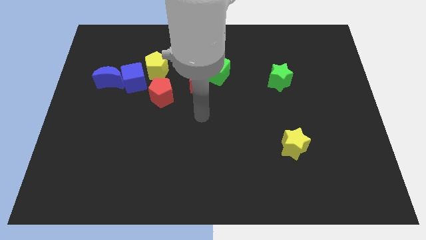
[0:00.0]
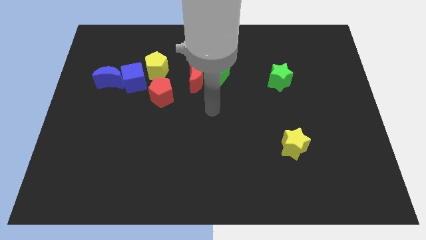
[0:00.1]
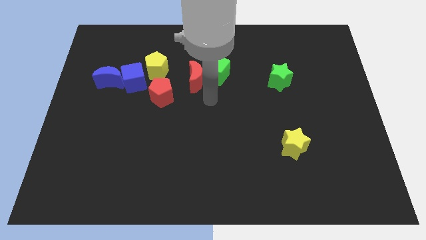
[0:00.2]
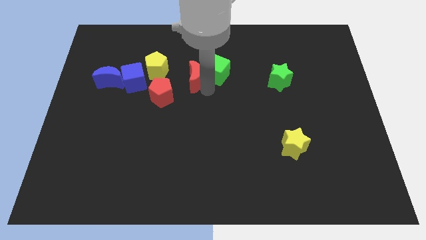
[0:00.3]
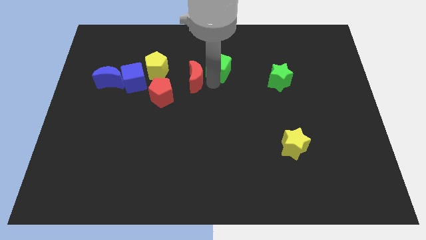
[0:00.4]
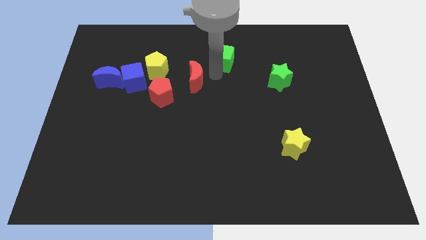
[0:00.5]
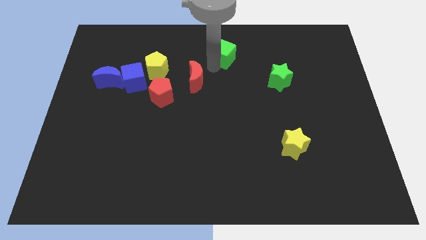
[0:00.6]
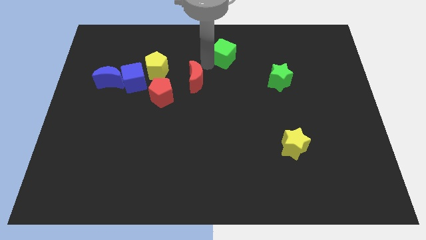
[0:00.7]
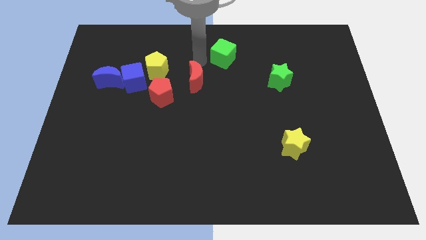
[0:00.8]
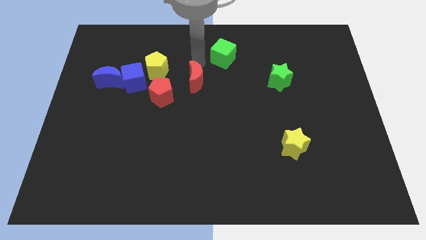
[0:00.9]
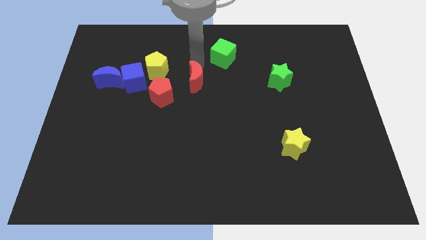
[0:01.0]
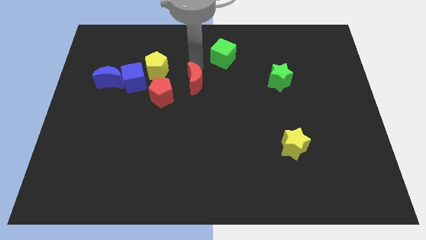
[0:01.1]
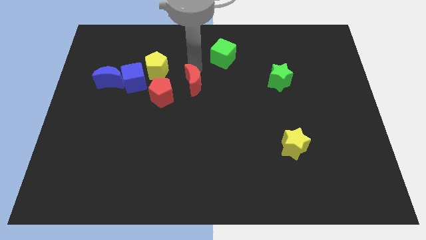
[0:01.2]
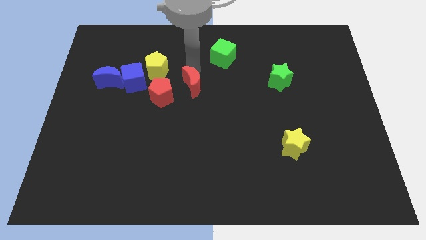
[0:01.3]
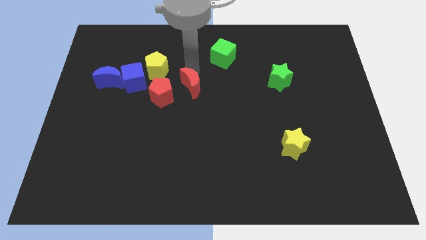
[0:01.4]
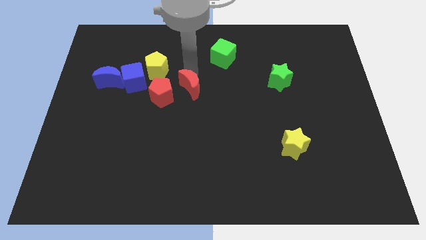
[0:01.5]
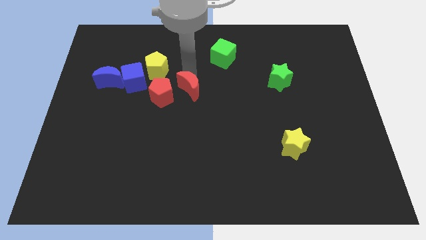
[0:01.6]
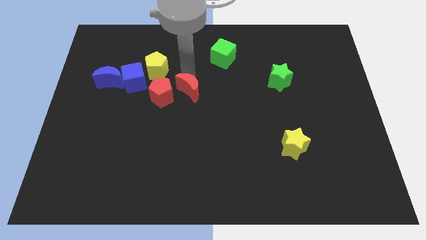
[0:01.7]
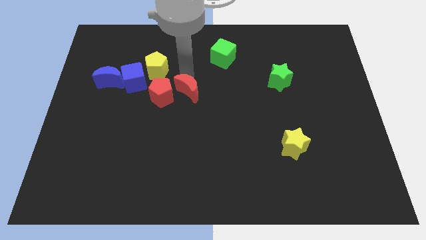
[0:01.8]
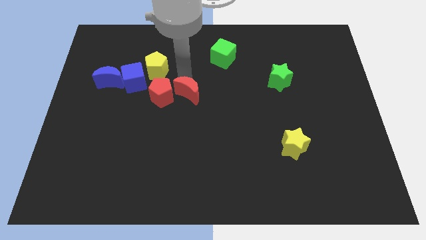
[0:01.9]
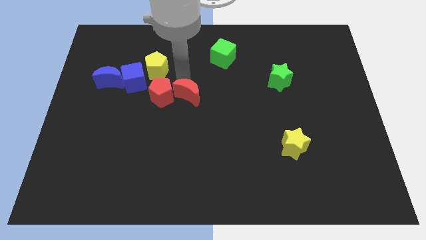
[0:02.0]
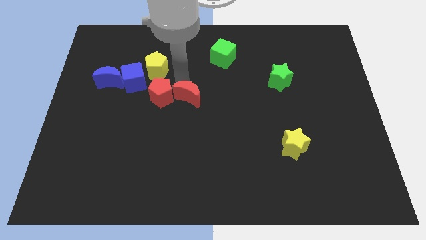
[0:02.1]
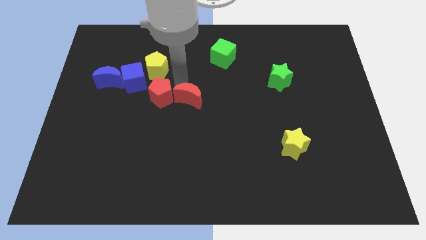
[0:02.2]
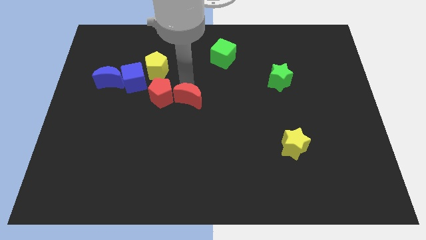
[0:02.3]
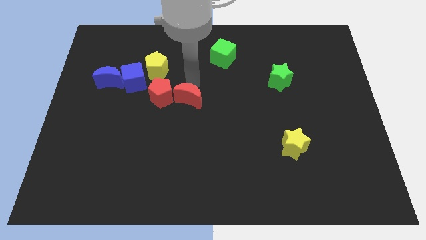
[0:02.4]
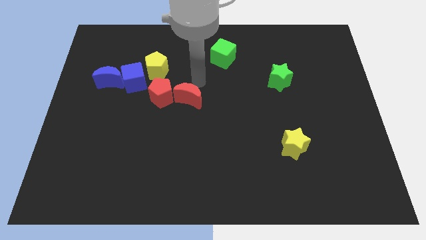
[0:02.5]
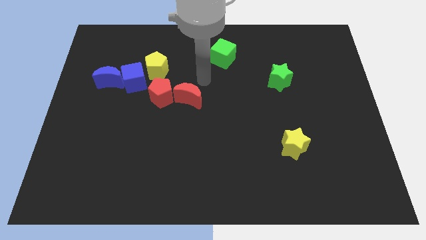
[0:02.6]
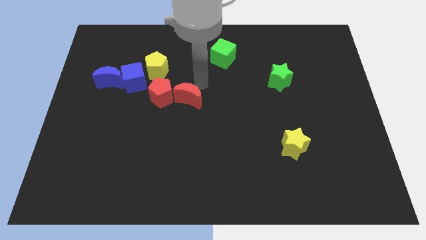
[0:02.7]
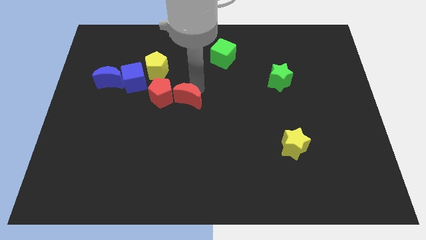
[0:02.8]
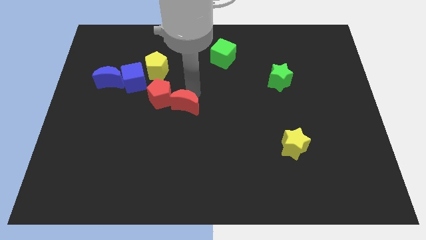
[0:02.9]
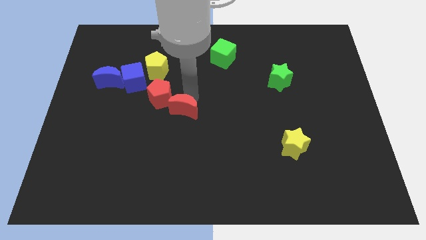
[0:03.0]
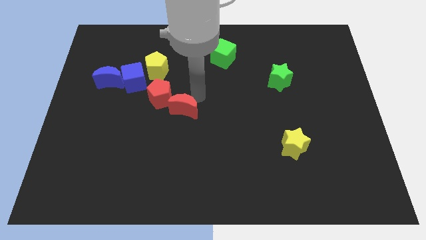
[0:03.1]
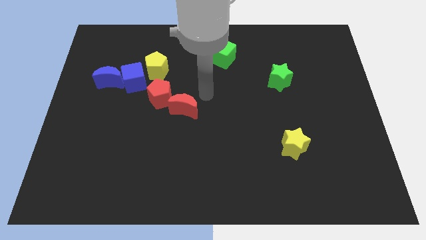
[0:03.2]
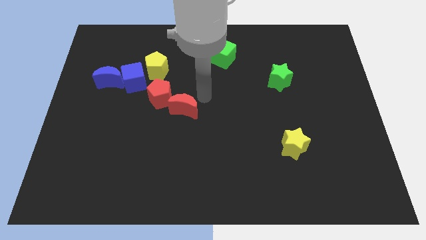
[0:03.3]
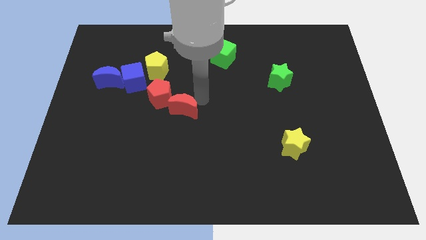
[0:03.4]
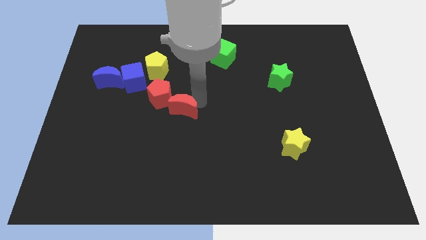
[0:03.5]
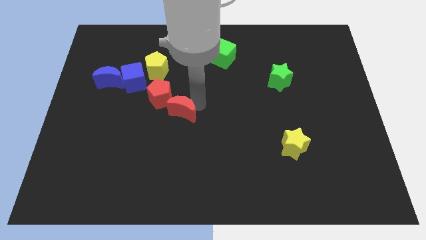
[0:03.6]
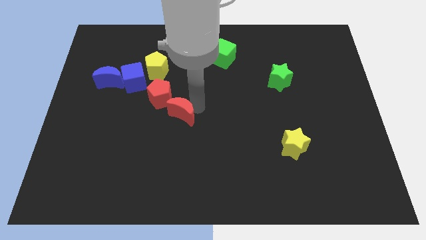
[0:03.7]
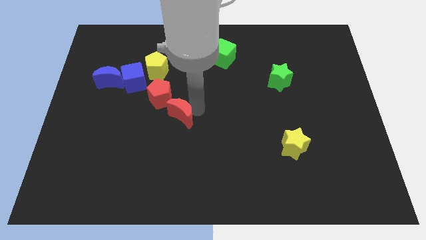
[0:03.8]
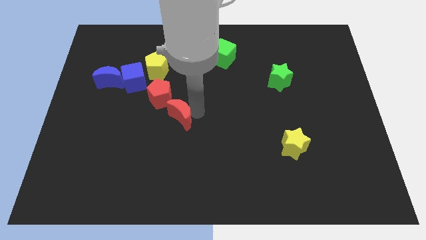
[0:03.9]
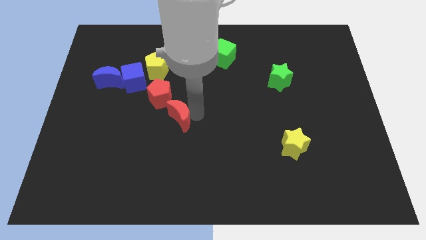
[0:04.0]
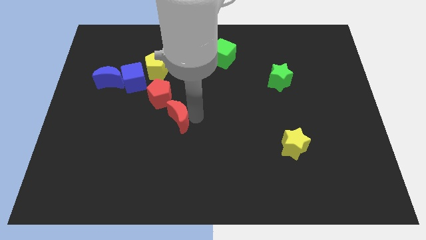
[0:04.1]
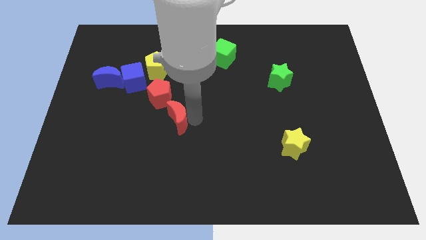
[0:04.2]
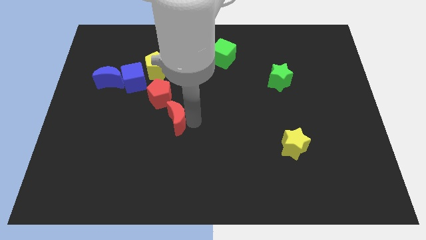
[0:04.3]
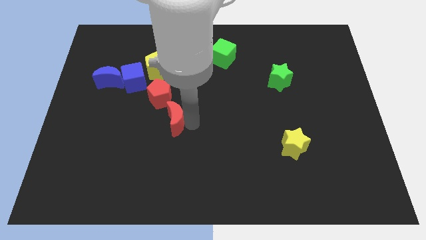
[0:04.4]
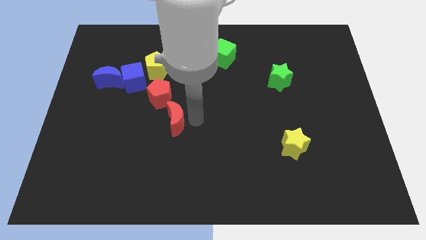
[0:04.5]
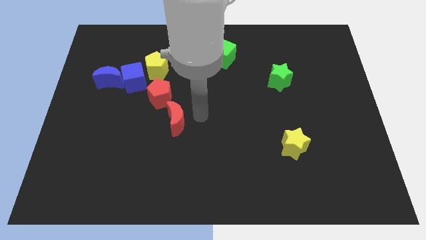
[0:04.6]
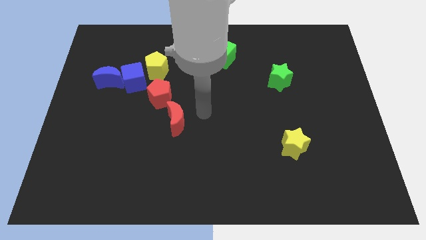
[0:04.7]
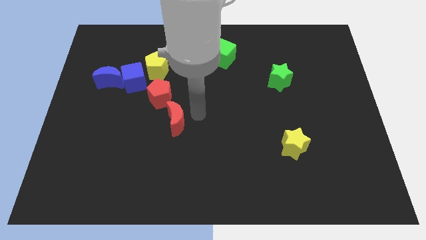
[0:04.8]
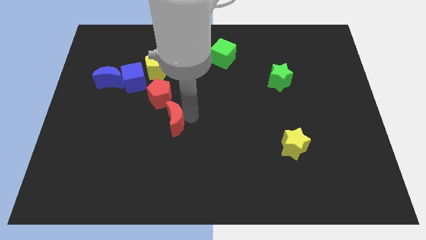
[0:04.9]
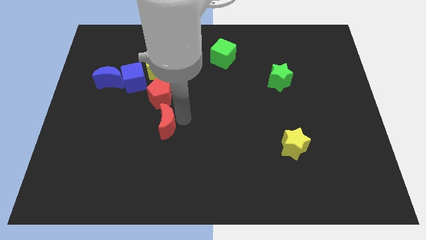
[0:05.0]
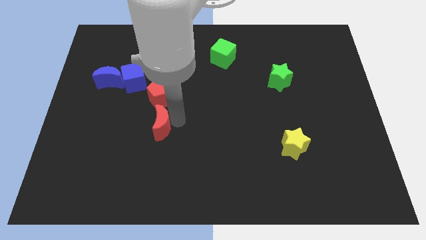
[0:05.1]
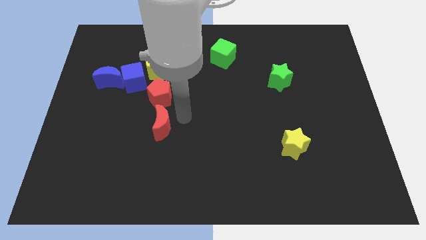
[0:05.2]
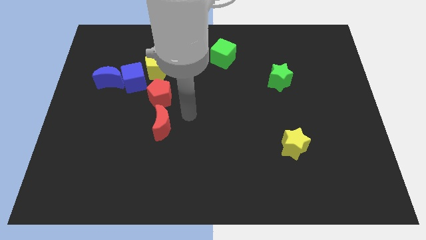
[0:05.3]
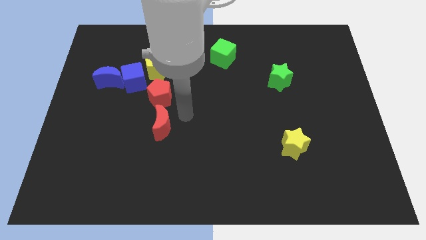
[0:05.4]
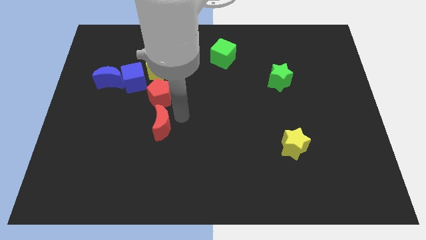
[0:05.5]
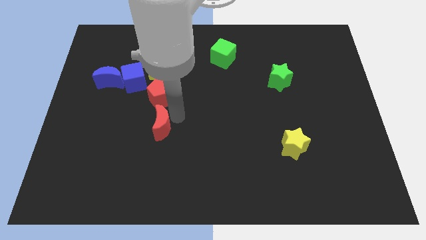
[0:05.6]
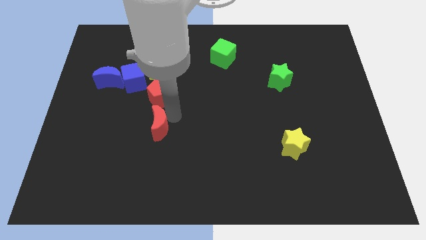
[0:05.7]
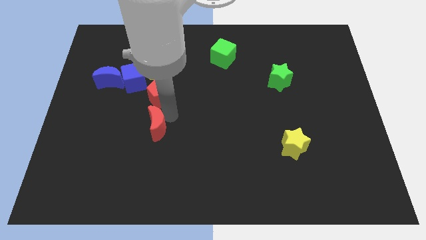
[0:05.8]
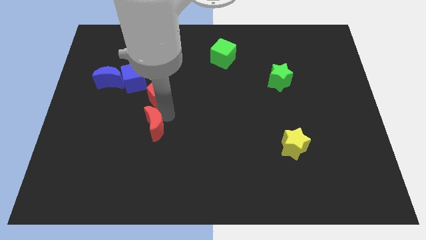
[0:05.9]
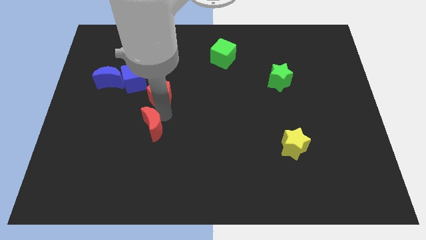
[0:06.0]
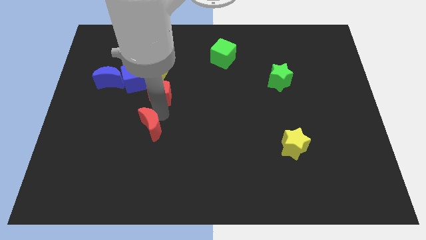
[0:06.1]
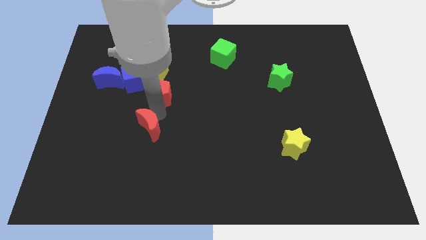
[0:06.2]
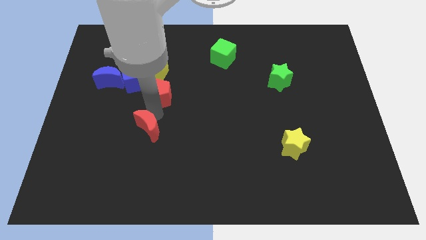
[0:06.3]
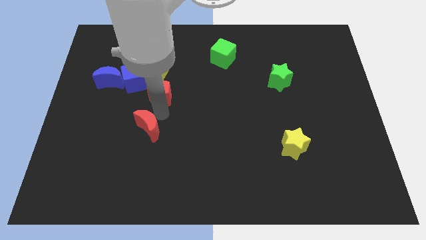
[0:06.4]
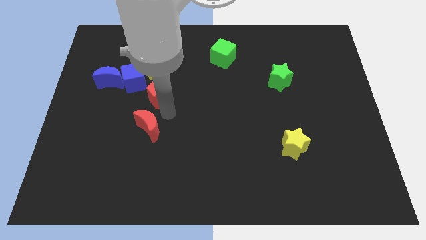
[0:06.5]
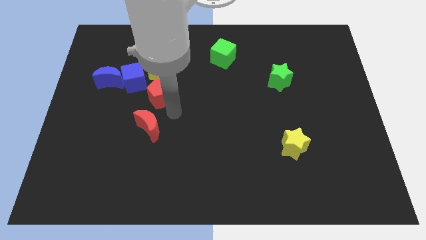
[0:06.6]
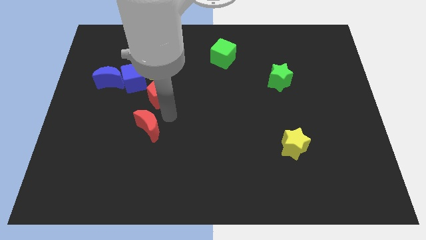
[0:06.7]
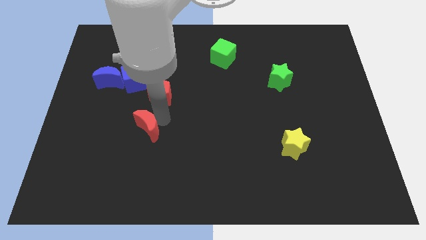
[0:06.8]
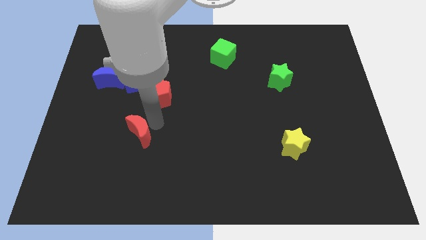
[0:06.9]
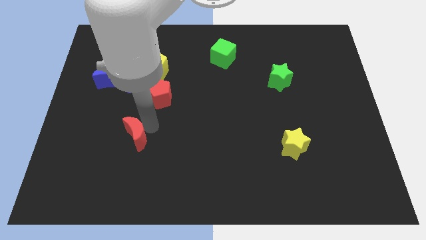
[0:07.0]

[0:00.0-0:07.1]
slide the red moon diagonally downwards and left

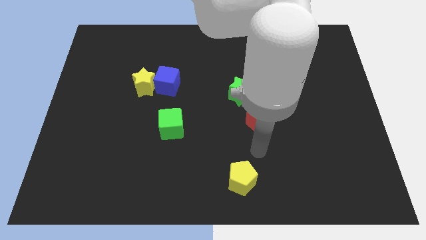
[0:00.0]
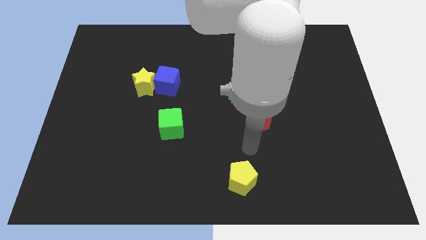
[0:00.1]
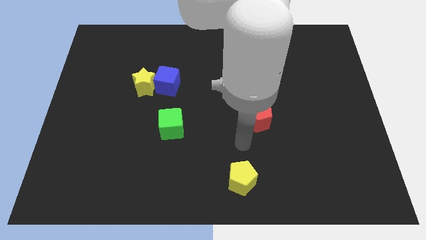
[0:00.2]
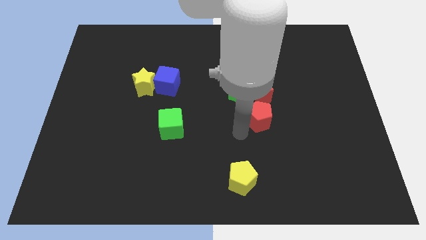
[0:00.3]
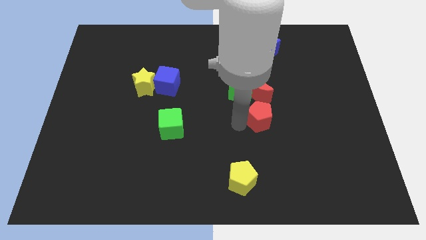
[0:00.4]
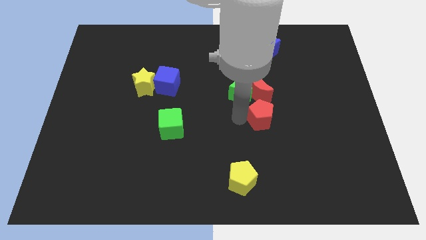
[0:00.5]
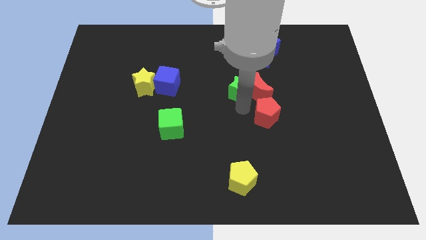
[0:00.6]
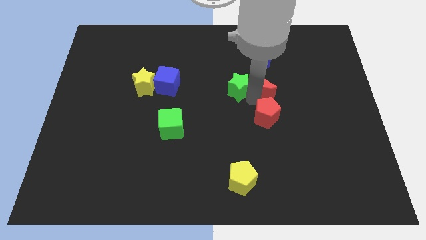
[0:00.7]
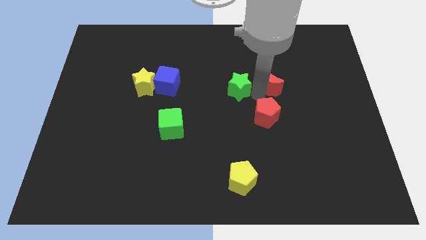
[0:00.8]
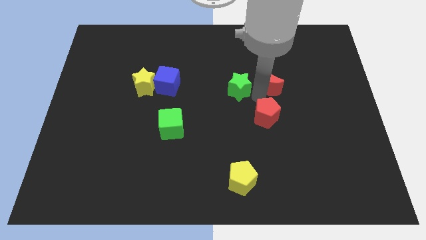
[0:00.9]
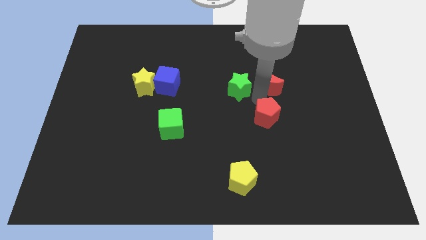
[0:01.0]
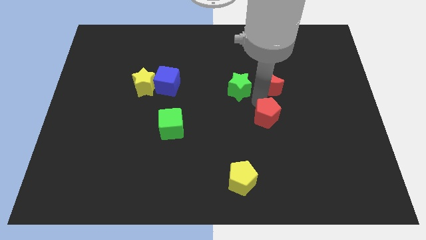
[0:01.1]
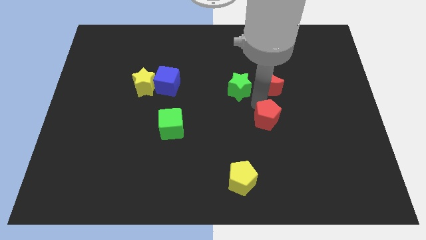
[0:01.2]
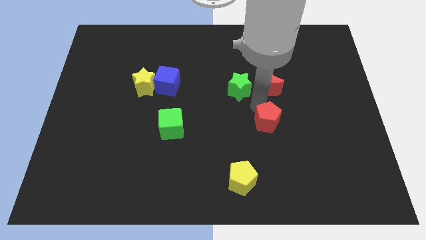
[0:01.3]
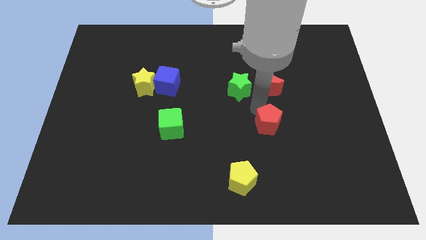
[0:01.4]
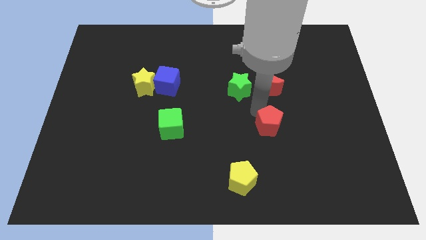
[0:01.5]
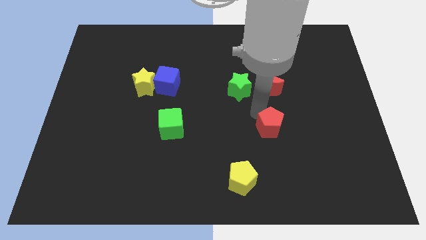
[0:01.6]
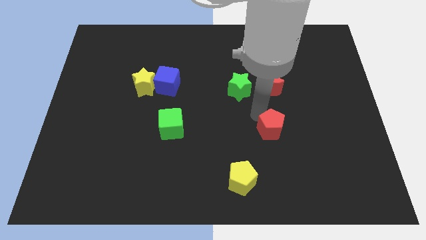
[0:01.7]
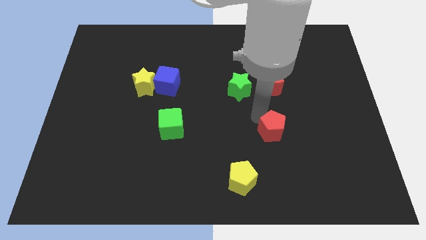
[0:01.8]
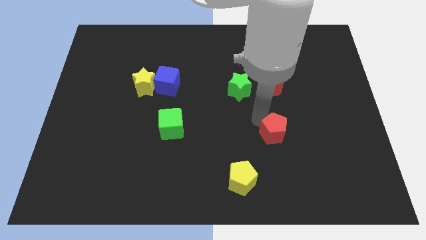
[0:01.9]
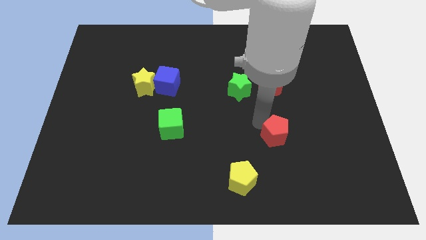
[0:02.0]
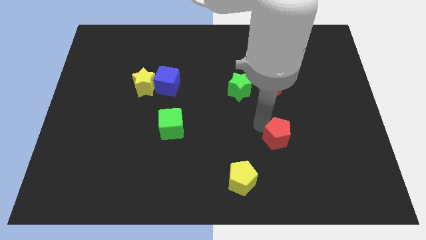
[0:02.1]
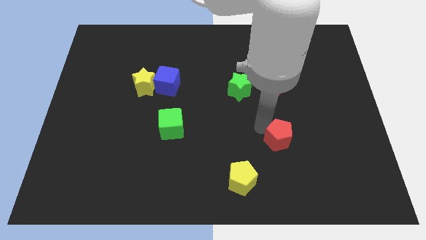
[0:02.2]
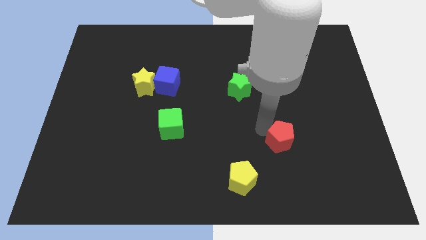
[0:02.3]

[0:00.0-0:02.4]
slightly push the red pentagon diagonally down and to the right
